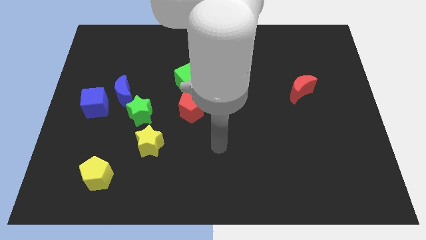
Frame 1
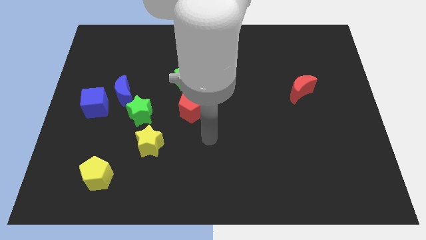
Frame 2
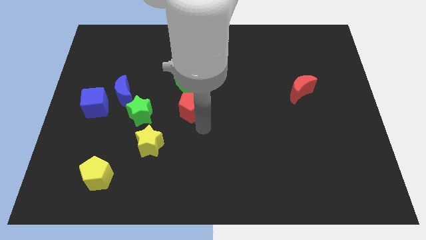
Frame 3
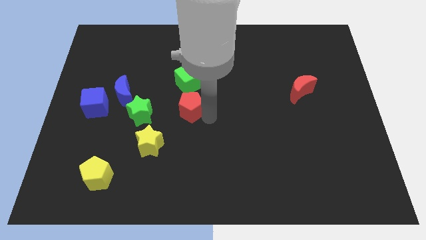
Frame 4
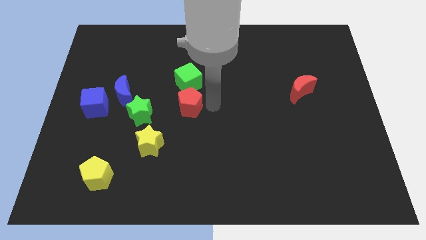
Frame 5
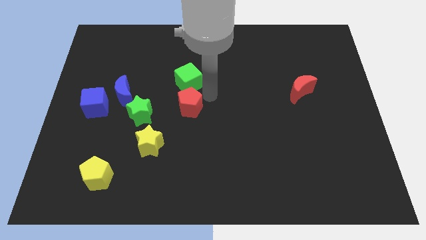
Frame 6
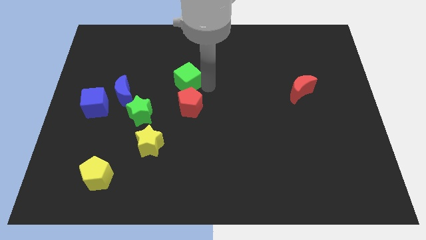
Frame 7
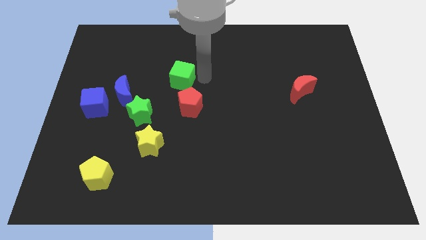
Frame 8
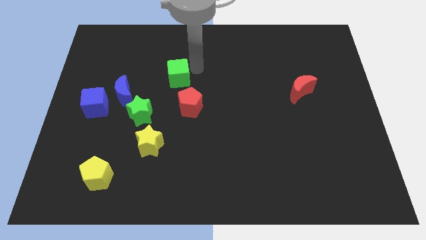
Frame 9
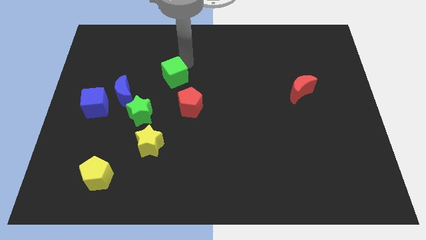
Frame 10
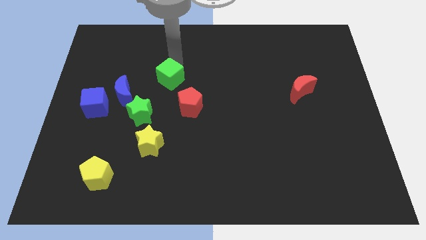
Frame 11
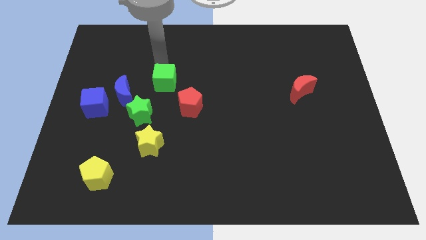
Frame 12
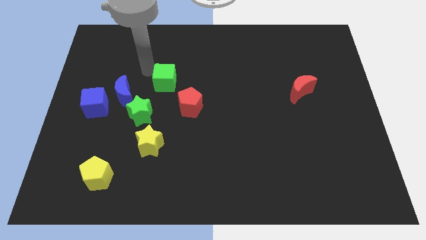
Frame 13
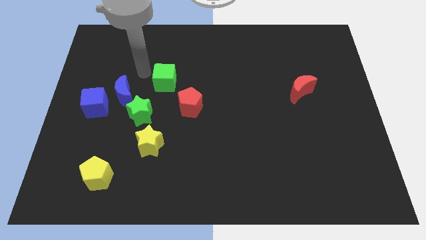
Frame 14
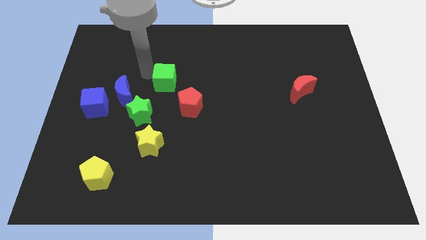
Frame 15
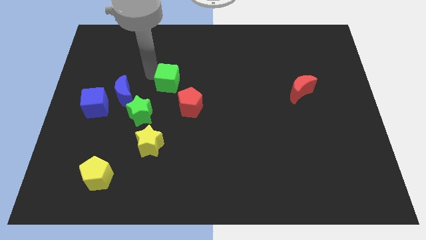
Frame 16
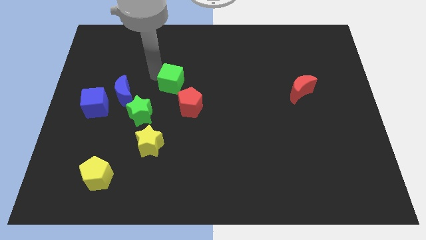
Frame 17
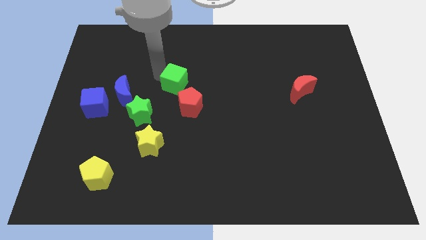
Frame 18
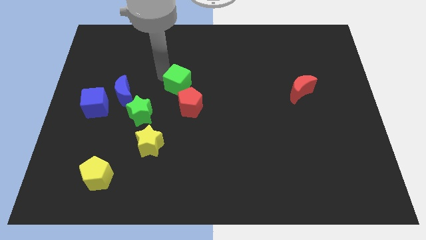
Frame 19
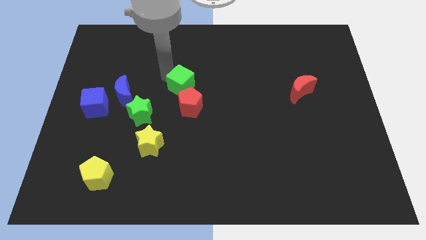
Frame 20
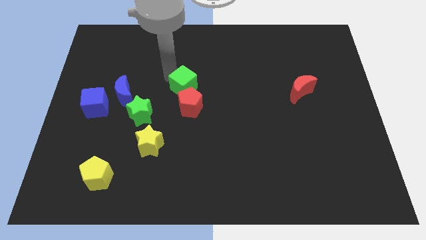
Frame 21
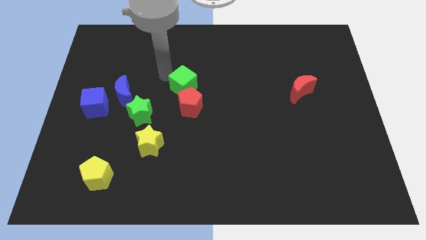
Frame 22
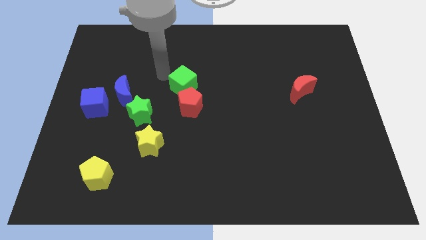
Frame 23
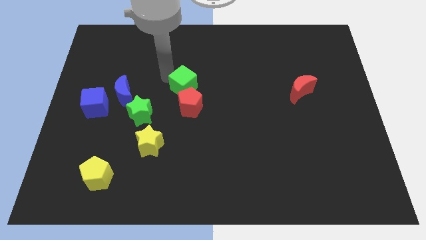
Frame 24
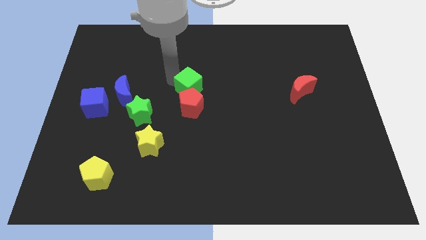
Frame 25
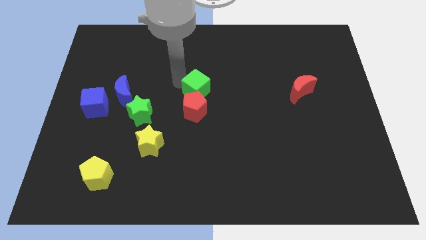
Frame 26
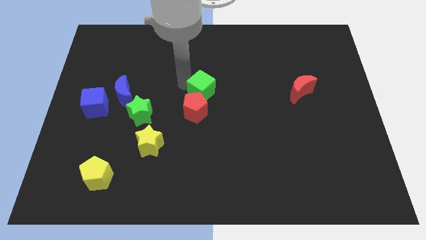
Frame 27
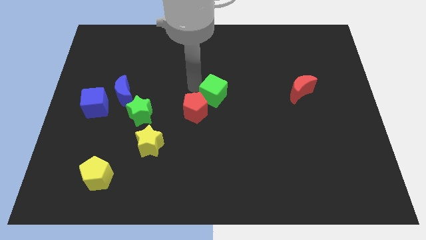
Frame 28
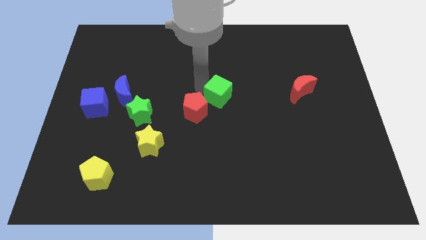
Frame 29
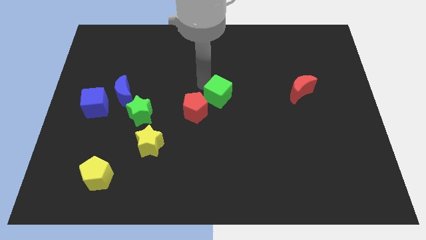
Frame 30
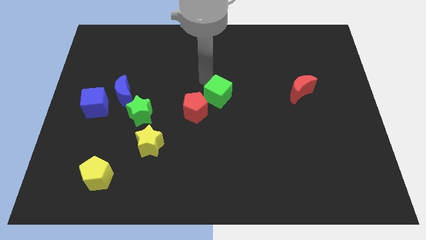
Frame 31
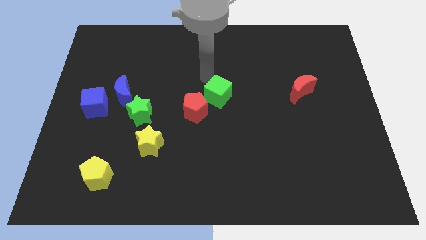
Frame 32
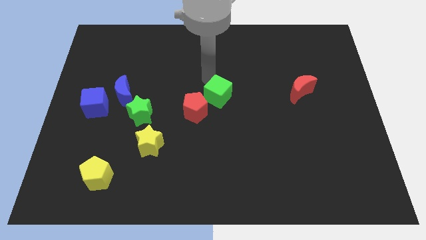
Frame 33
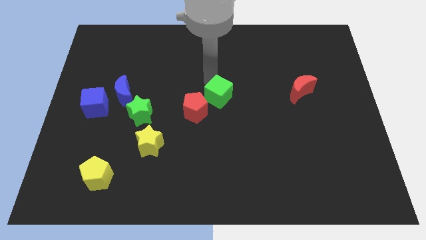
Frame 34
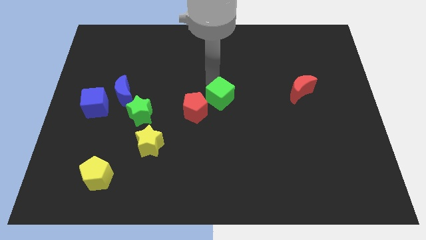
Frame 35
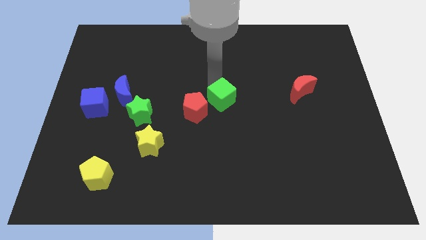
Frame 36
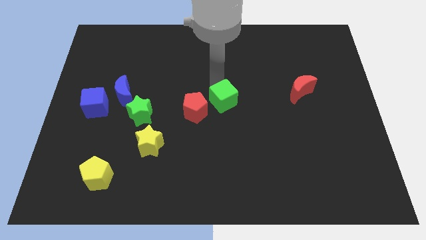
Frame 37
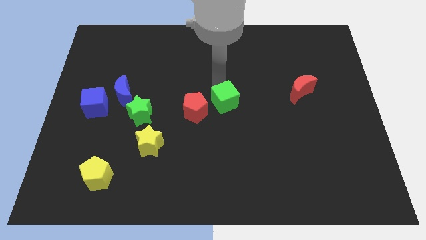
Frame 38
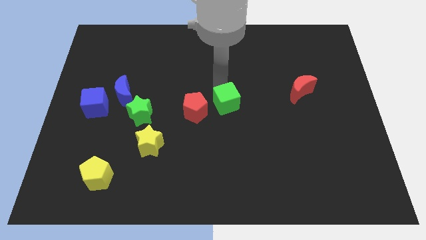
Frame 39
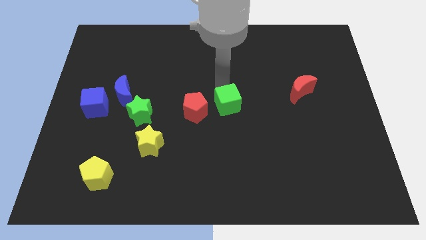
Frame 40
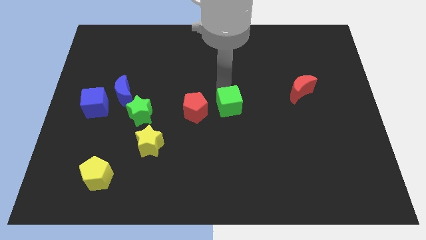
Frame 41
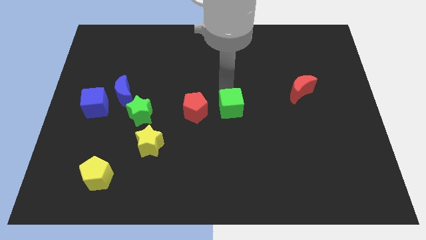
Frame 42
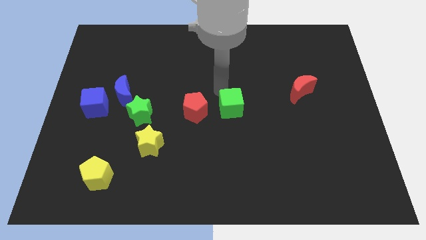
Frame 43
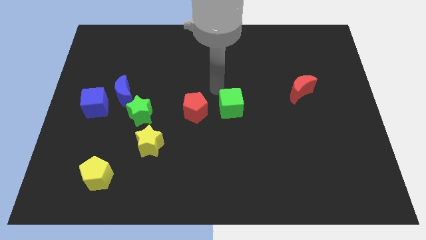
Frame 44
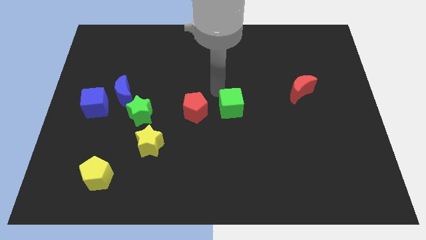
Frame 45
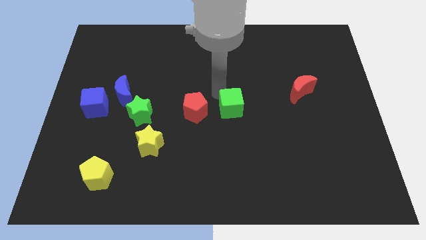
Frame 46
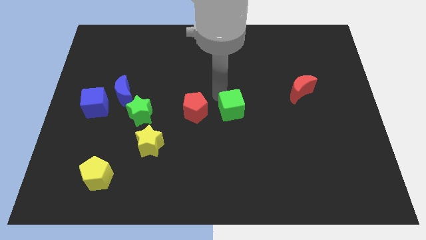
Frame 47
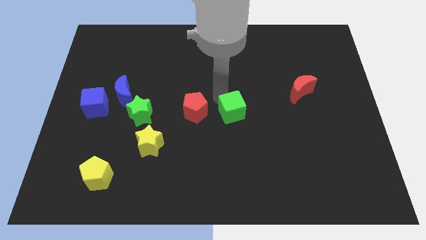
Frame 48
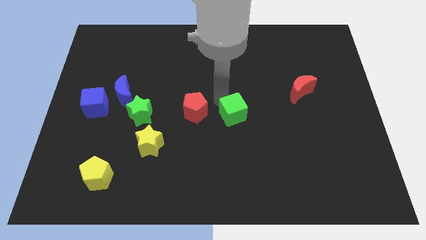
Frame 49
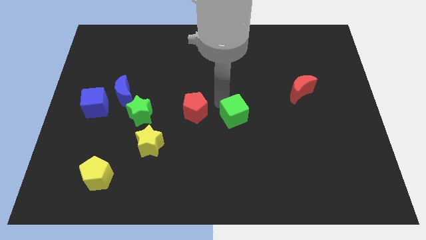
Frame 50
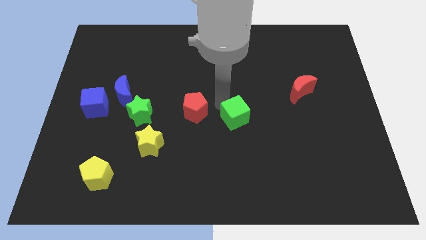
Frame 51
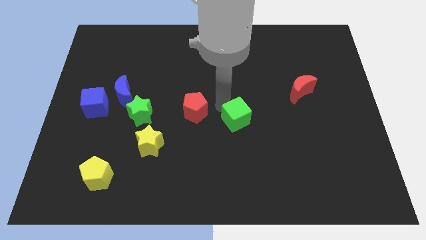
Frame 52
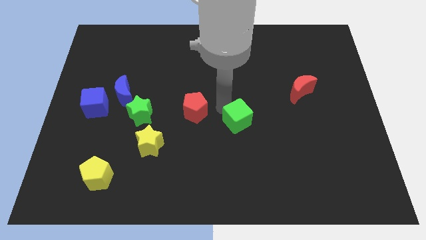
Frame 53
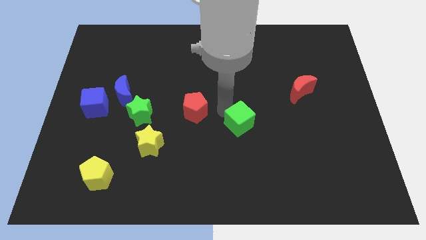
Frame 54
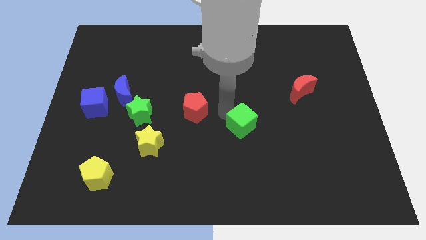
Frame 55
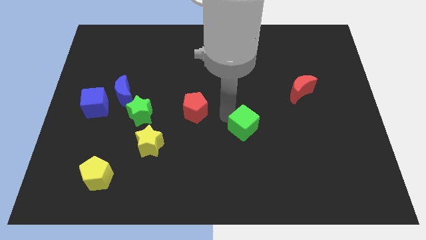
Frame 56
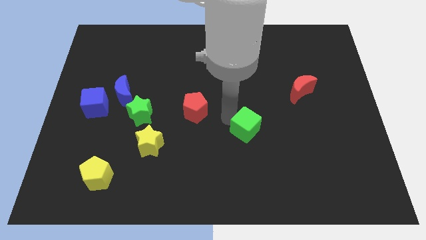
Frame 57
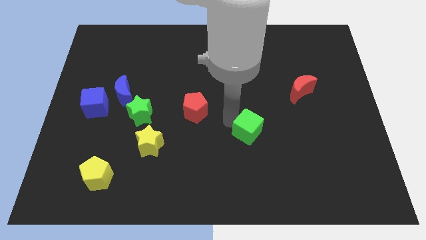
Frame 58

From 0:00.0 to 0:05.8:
push the green cube downwards and right

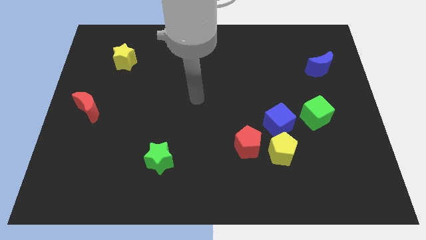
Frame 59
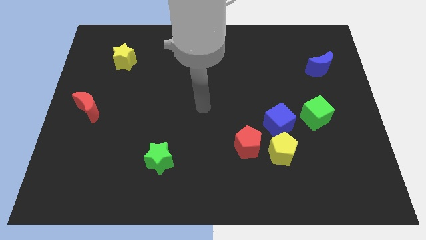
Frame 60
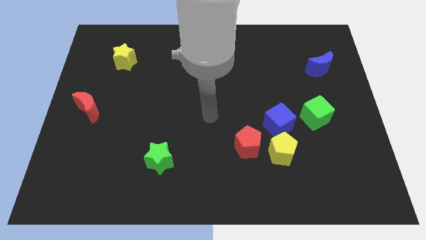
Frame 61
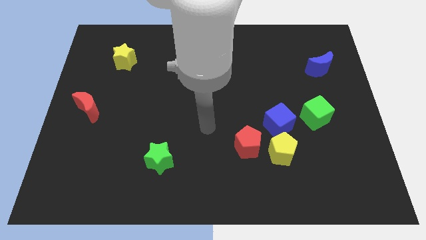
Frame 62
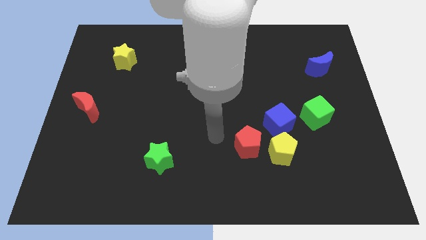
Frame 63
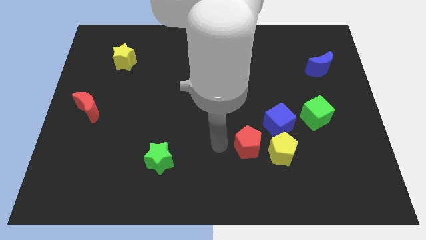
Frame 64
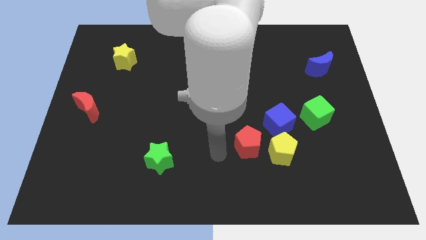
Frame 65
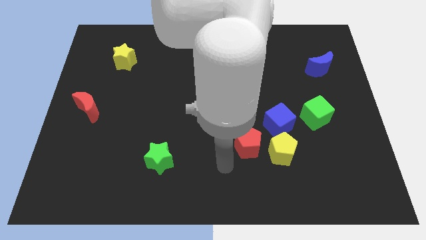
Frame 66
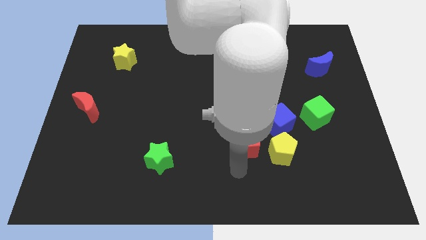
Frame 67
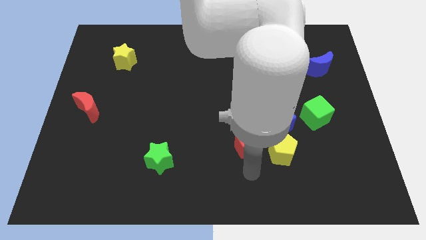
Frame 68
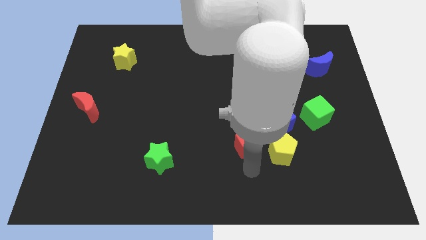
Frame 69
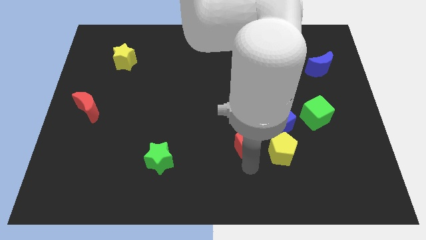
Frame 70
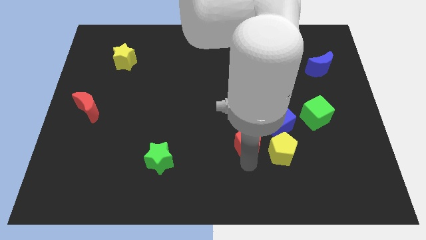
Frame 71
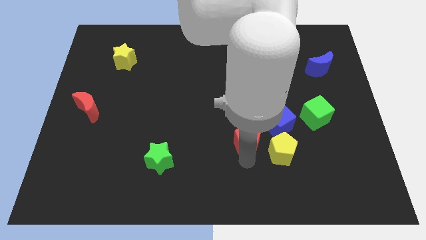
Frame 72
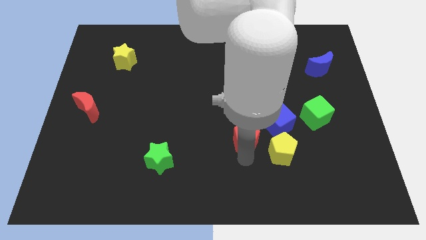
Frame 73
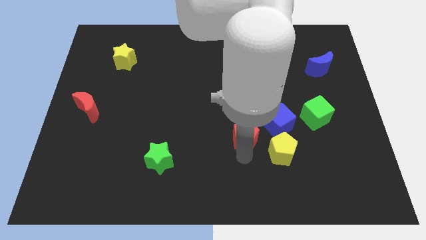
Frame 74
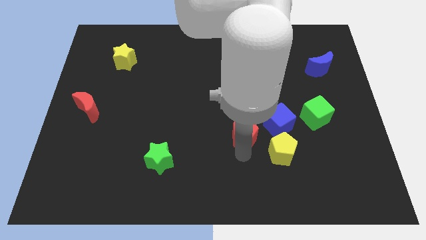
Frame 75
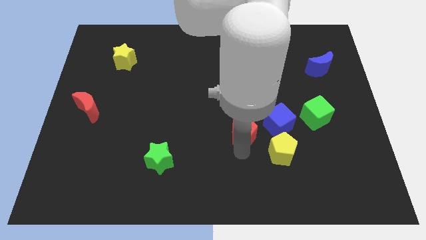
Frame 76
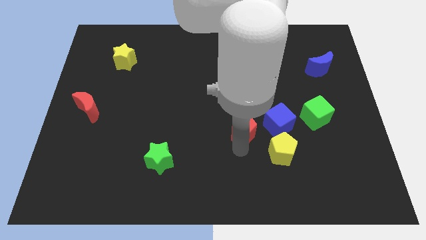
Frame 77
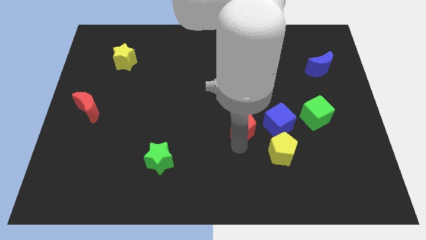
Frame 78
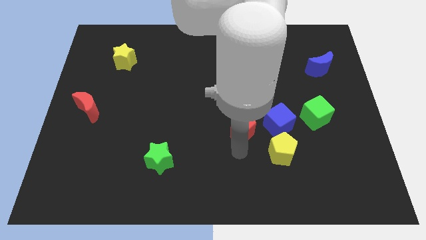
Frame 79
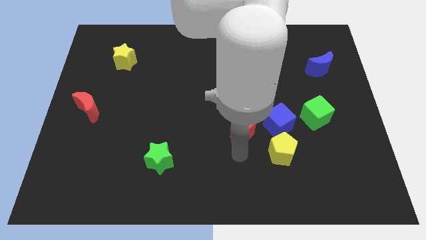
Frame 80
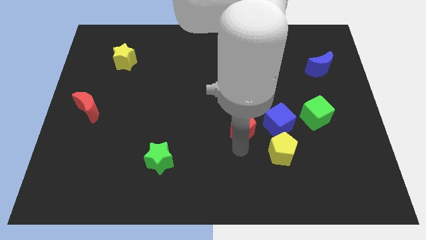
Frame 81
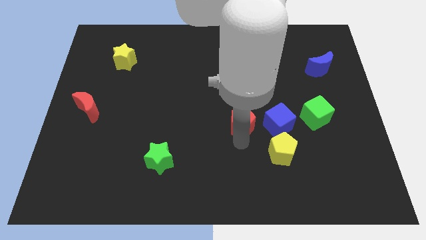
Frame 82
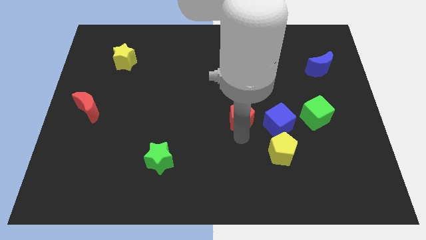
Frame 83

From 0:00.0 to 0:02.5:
move the red pentagon somewhat upwards
